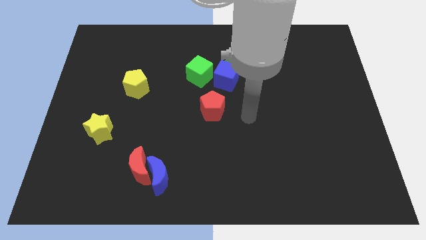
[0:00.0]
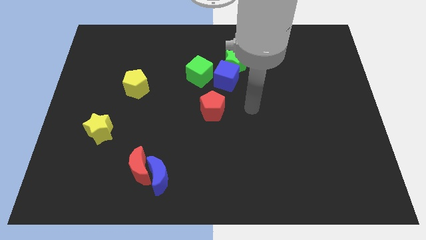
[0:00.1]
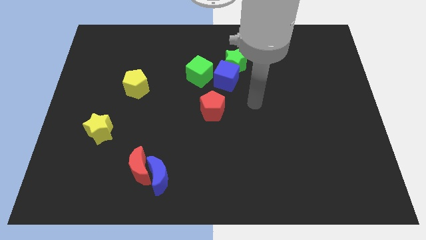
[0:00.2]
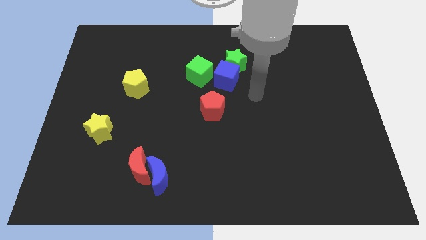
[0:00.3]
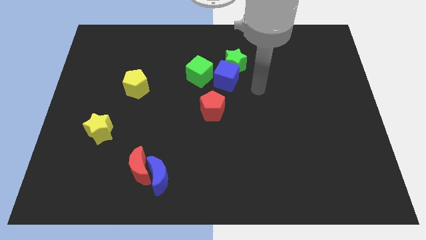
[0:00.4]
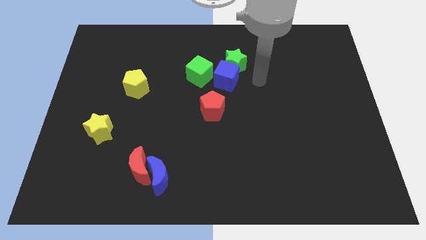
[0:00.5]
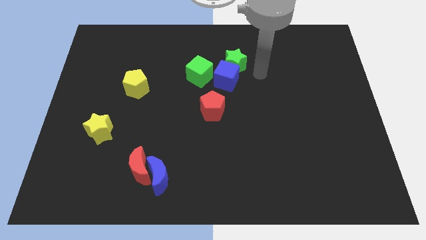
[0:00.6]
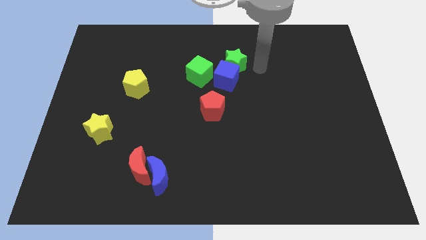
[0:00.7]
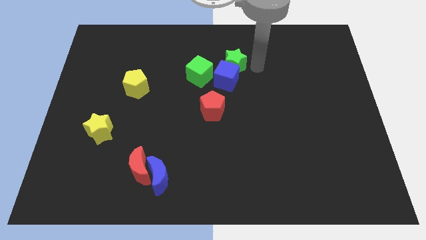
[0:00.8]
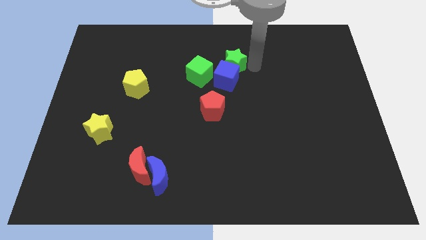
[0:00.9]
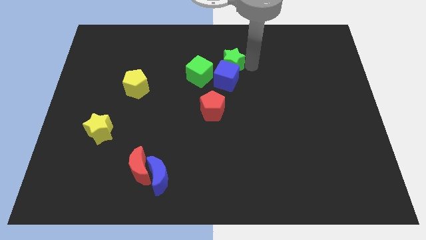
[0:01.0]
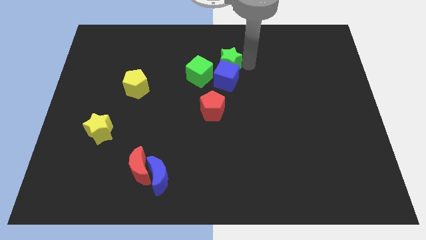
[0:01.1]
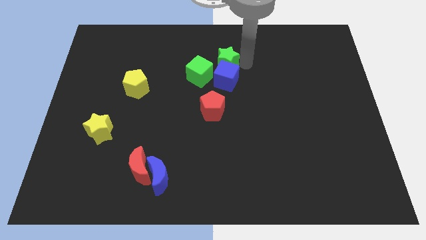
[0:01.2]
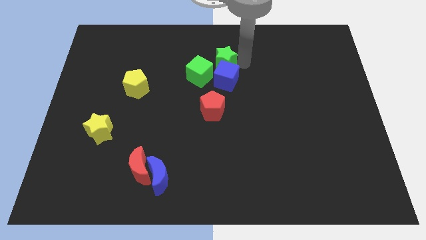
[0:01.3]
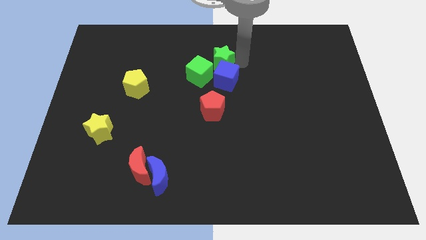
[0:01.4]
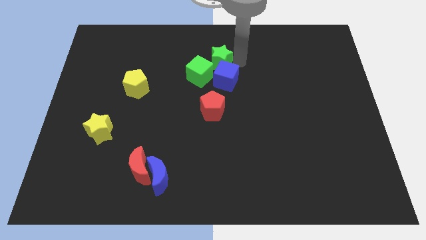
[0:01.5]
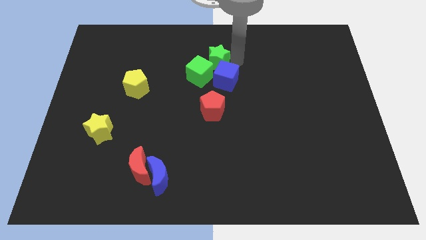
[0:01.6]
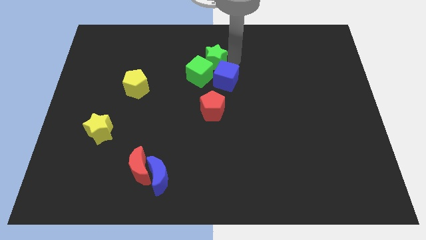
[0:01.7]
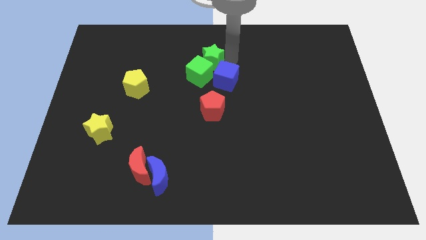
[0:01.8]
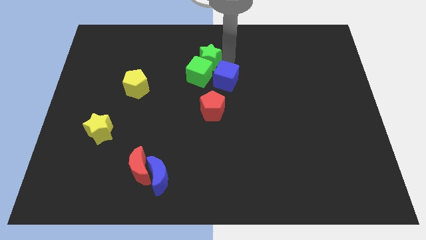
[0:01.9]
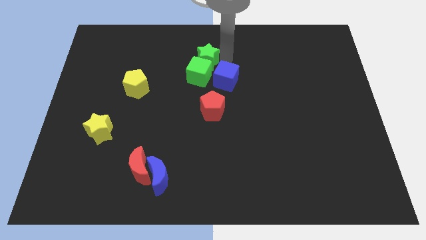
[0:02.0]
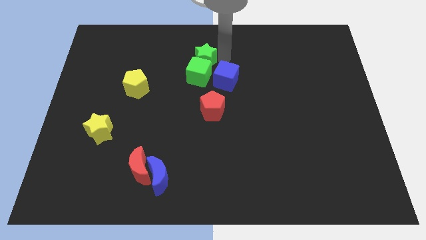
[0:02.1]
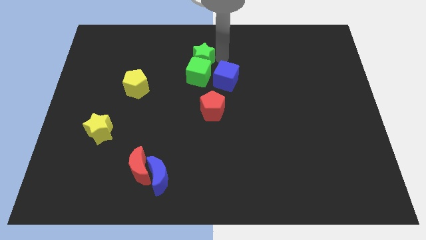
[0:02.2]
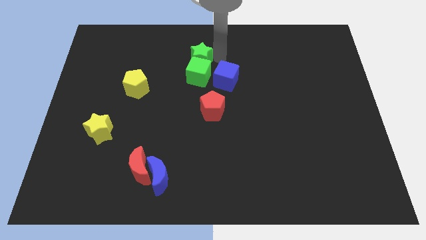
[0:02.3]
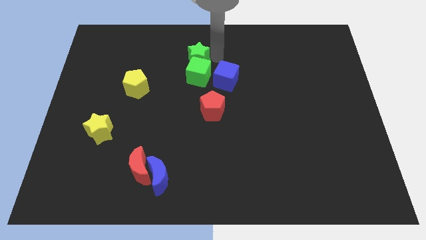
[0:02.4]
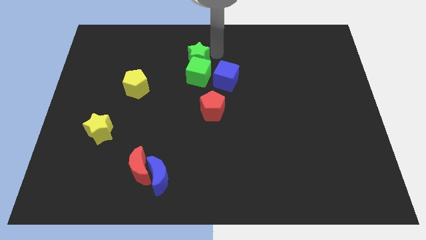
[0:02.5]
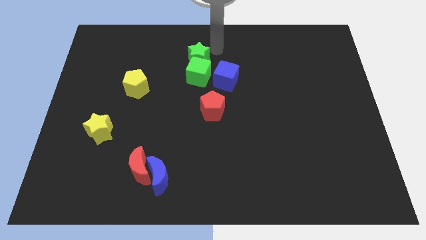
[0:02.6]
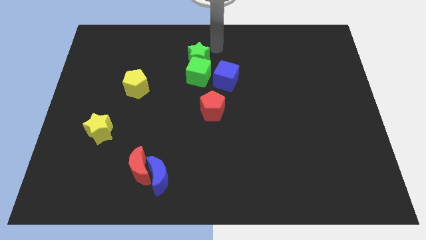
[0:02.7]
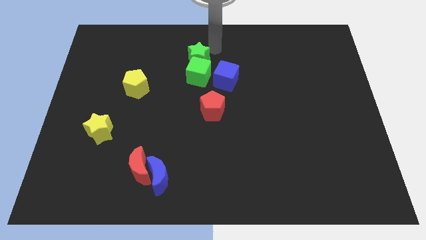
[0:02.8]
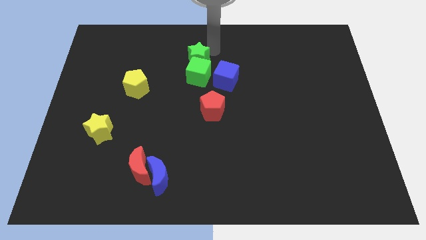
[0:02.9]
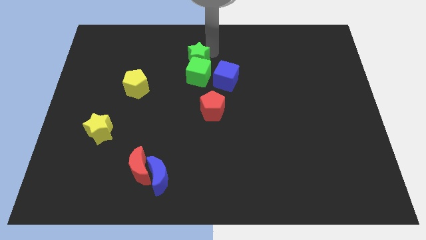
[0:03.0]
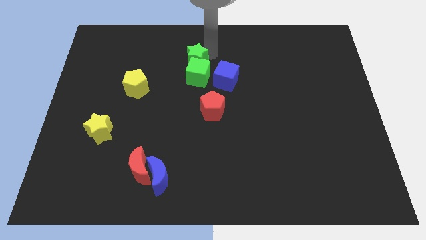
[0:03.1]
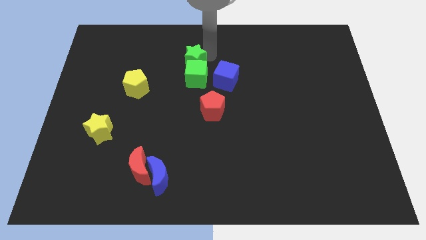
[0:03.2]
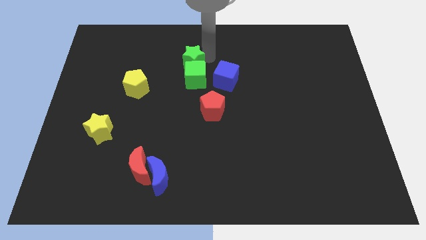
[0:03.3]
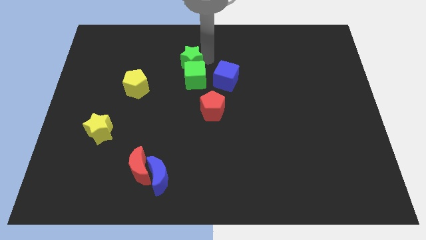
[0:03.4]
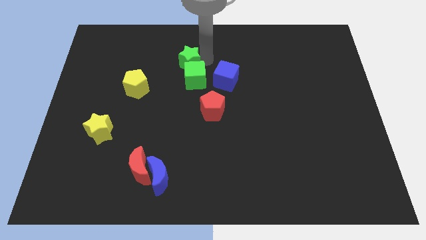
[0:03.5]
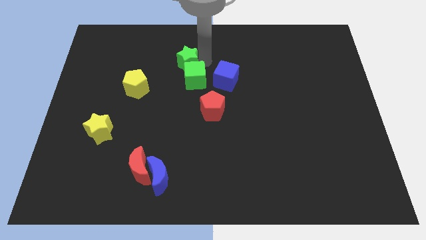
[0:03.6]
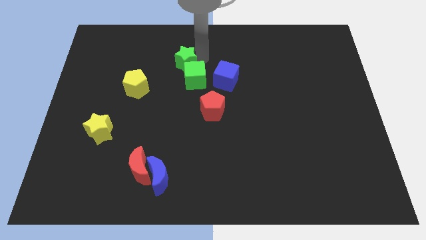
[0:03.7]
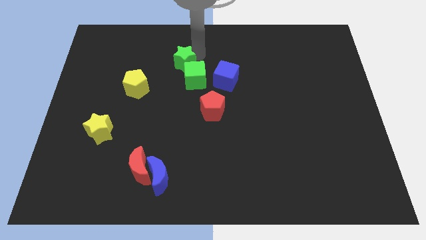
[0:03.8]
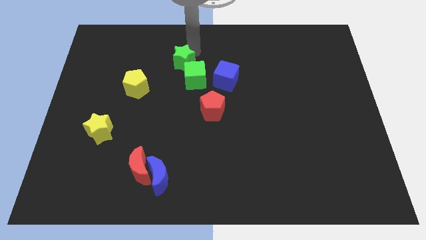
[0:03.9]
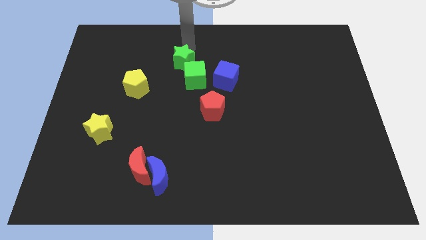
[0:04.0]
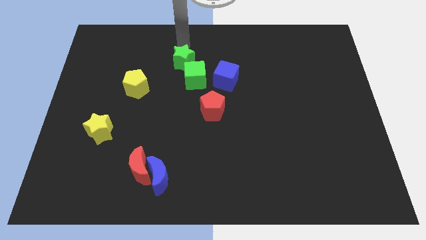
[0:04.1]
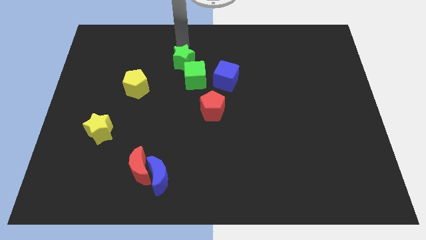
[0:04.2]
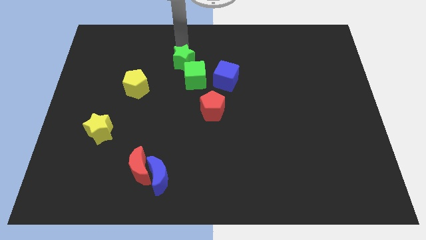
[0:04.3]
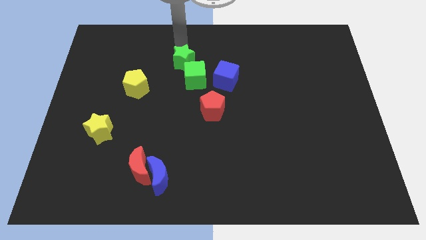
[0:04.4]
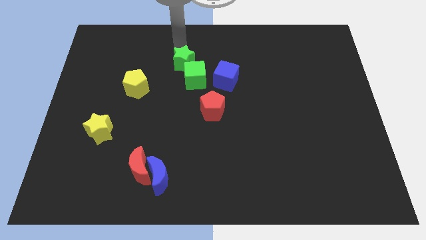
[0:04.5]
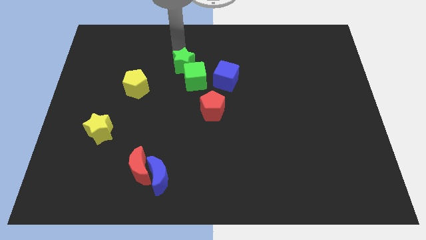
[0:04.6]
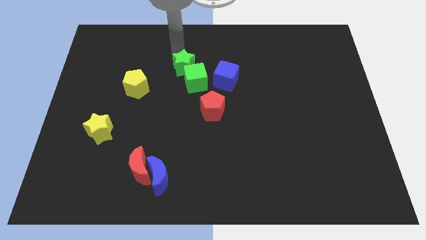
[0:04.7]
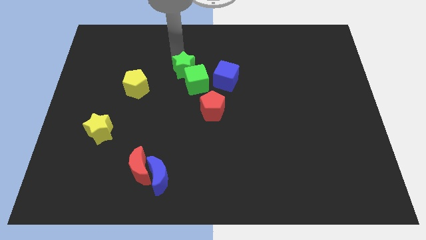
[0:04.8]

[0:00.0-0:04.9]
slide the green star downwards and left diagonally a little

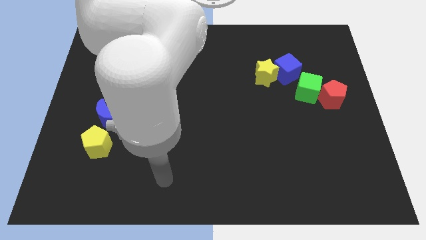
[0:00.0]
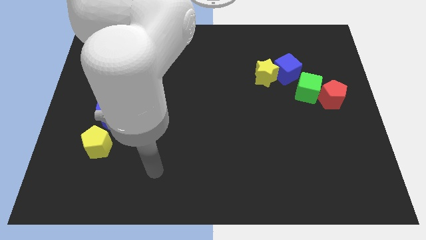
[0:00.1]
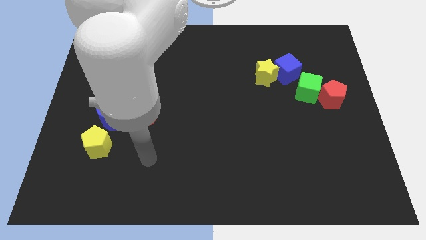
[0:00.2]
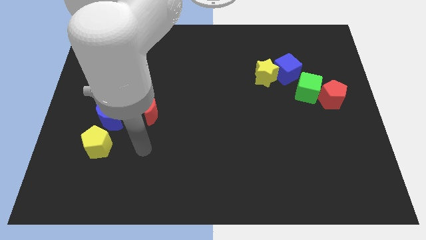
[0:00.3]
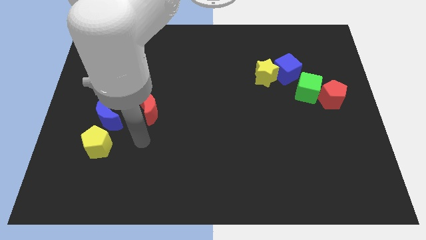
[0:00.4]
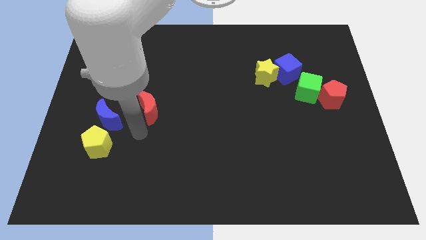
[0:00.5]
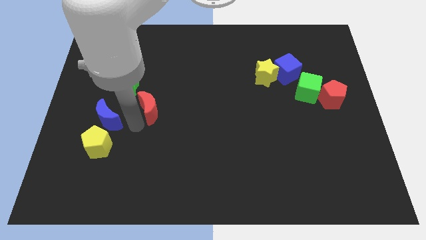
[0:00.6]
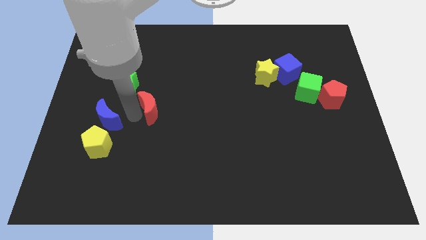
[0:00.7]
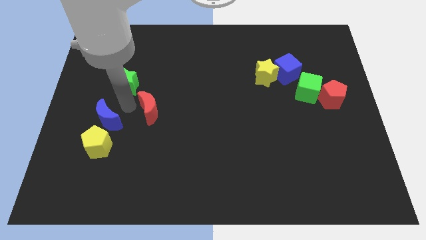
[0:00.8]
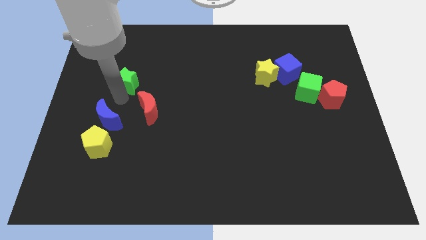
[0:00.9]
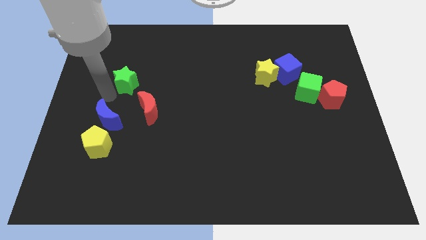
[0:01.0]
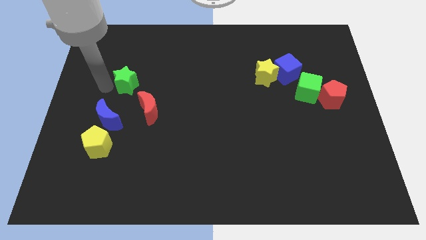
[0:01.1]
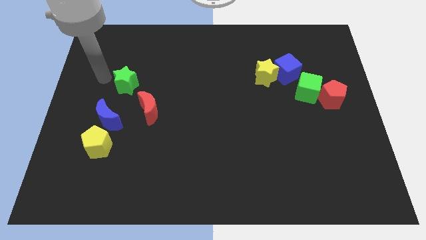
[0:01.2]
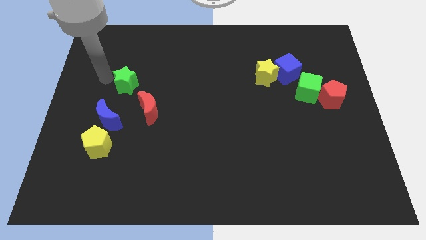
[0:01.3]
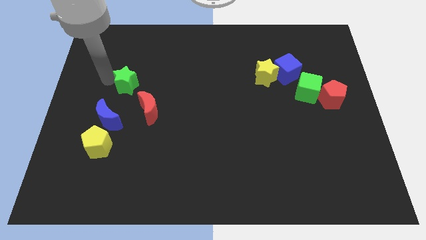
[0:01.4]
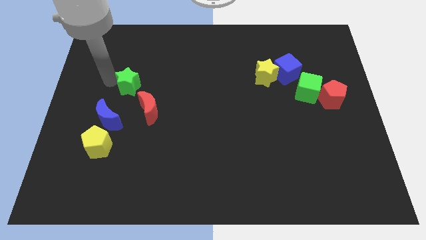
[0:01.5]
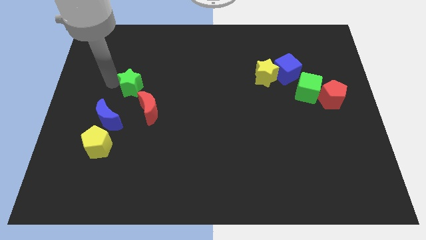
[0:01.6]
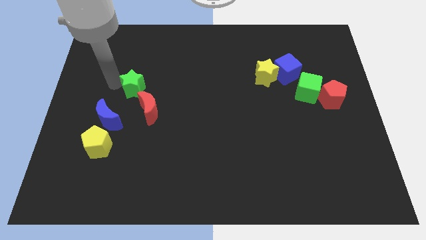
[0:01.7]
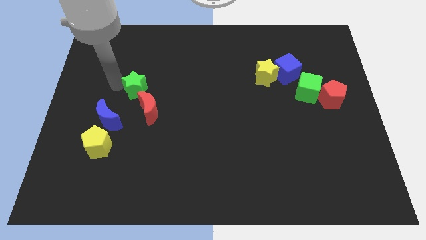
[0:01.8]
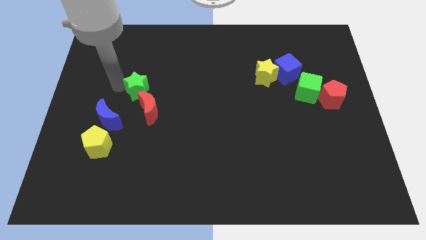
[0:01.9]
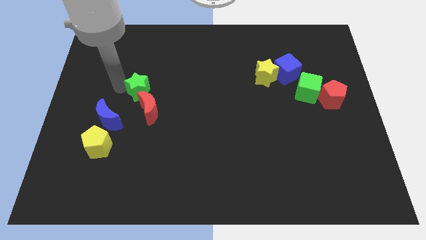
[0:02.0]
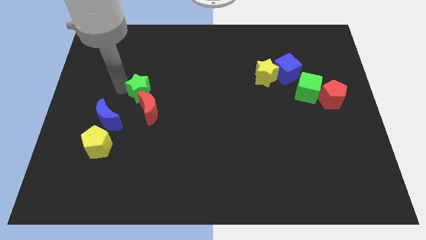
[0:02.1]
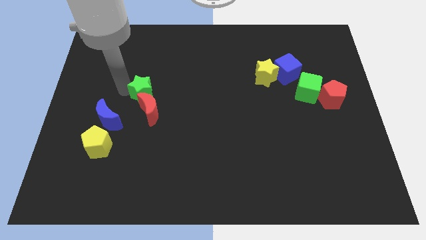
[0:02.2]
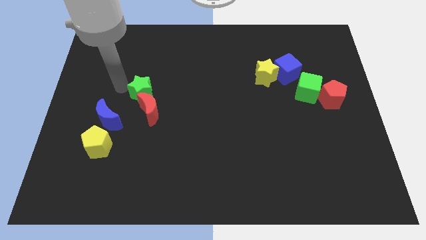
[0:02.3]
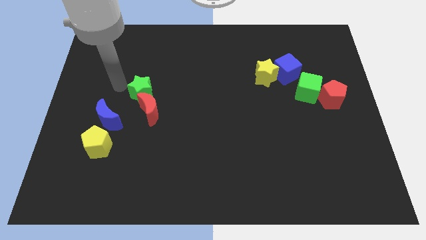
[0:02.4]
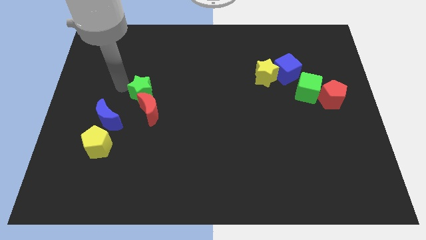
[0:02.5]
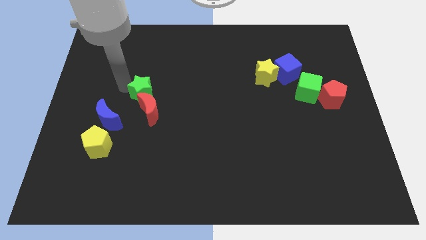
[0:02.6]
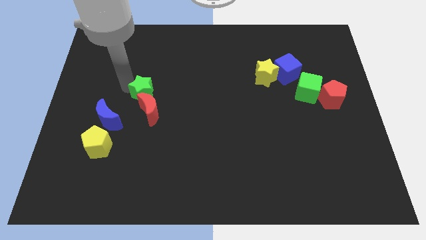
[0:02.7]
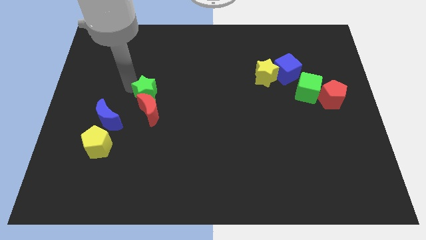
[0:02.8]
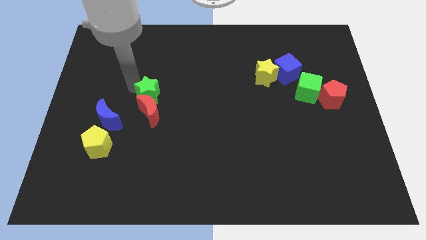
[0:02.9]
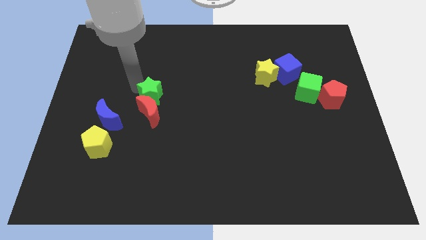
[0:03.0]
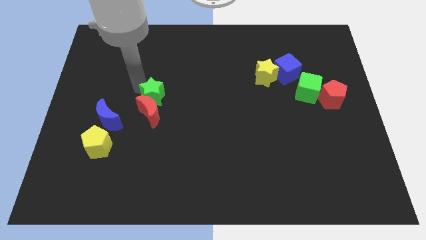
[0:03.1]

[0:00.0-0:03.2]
push the green star diagonally down and right a bit
